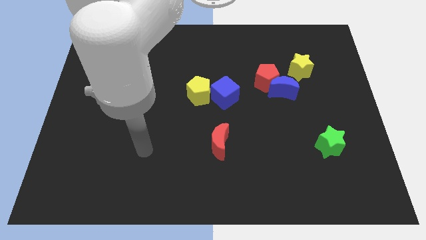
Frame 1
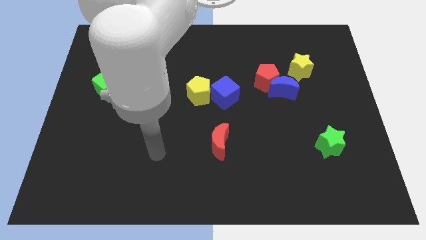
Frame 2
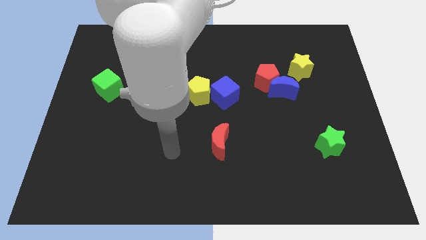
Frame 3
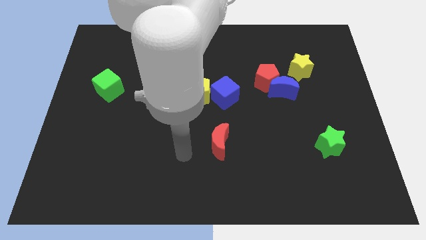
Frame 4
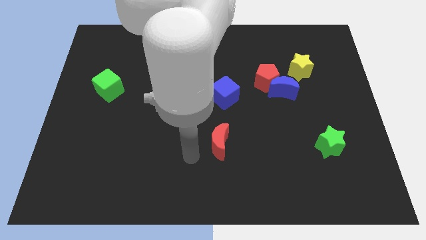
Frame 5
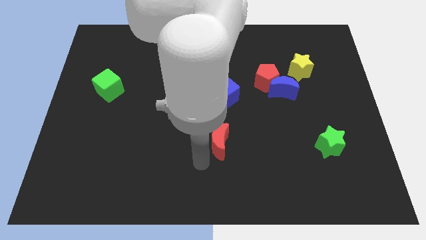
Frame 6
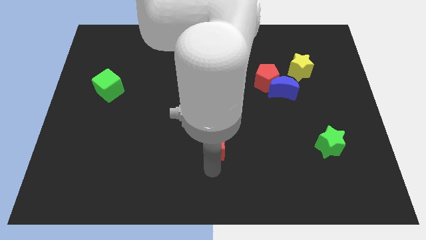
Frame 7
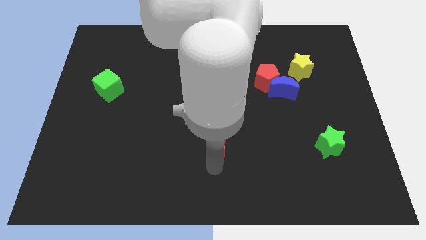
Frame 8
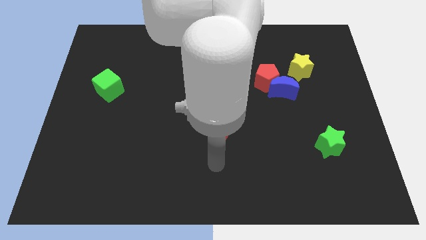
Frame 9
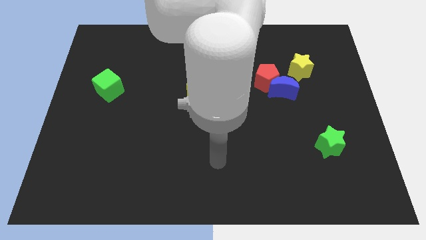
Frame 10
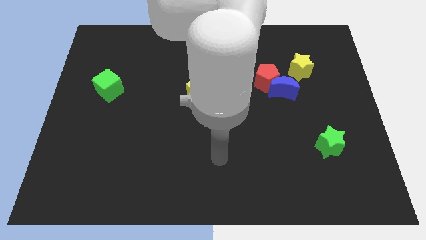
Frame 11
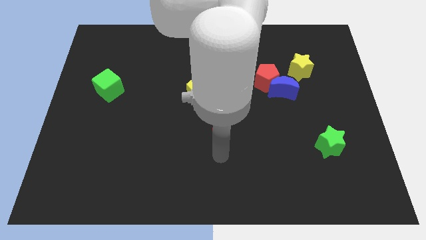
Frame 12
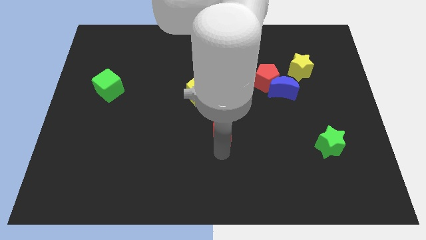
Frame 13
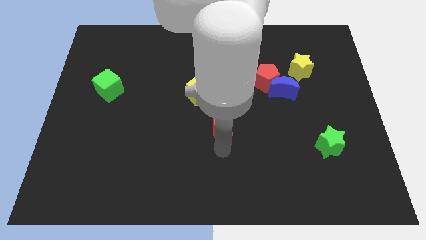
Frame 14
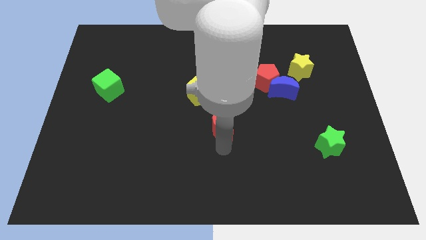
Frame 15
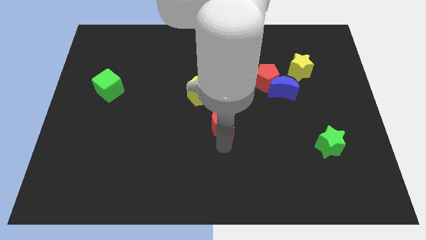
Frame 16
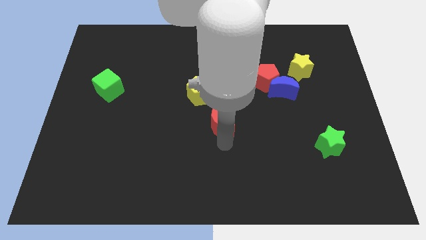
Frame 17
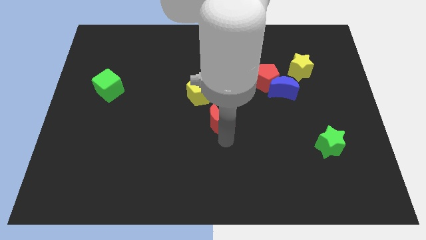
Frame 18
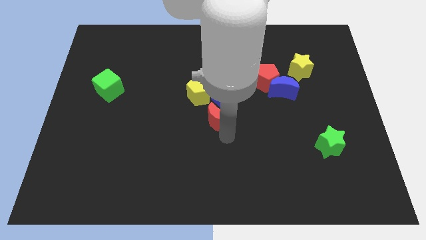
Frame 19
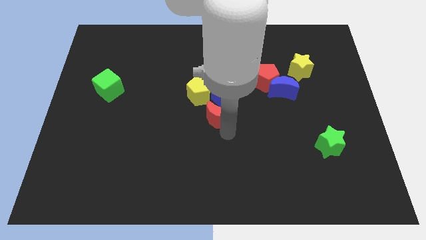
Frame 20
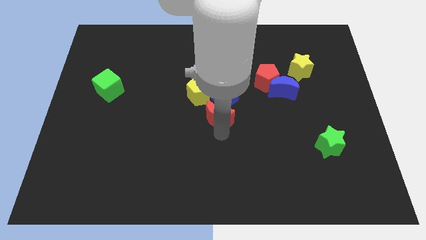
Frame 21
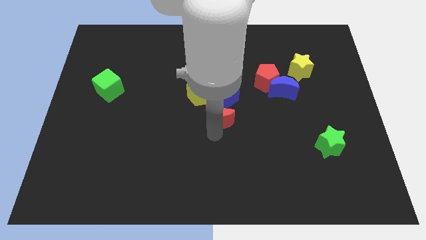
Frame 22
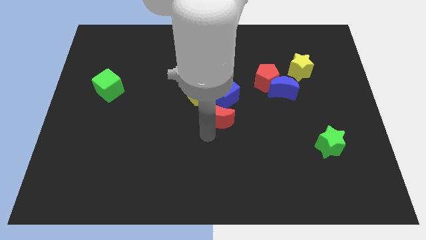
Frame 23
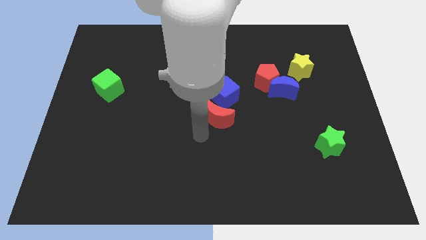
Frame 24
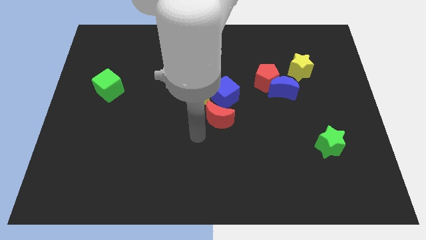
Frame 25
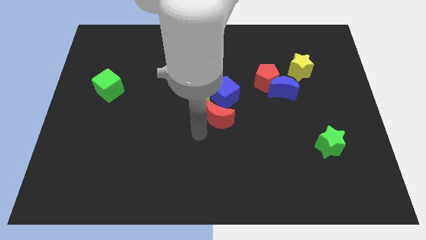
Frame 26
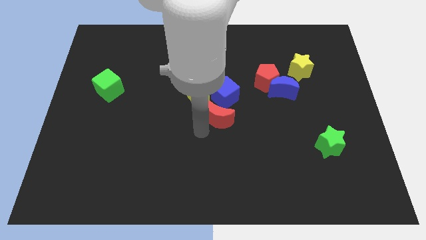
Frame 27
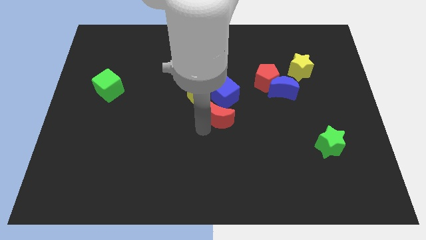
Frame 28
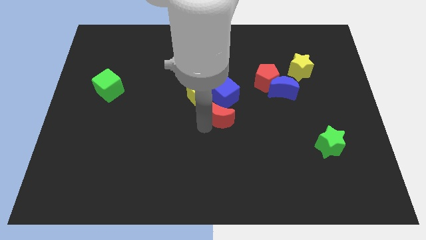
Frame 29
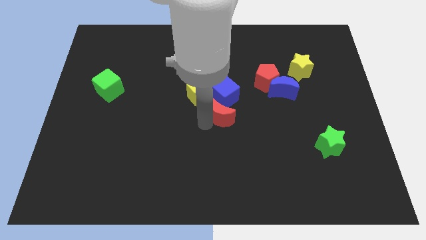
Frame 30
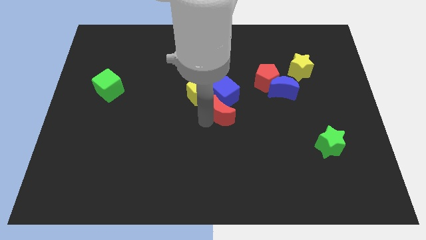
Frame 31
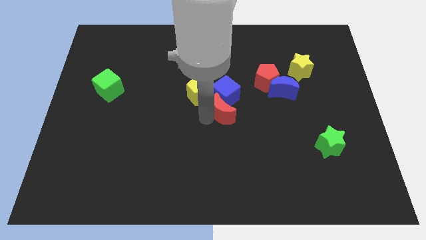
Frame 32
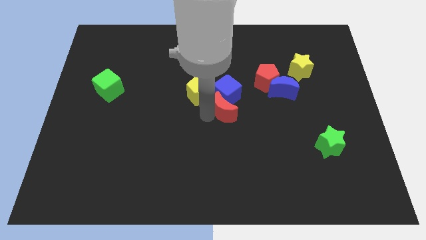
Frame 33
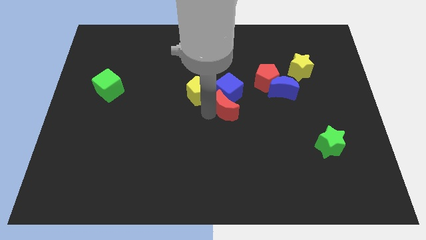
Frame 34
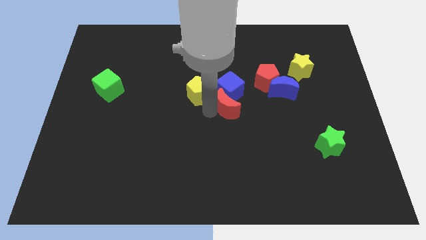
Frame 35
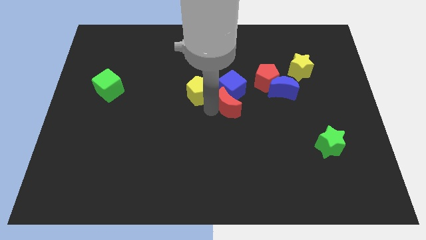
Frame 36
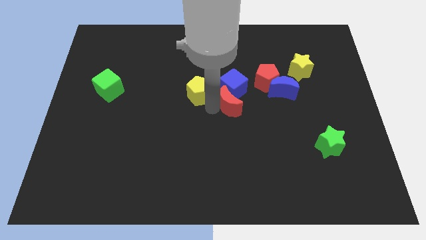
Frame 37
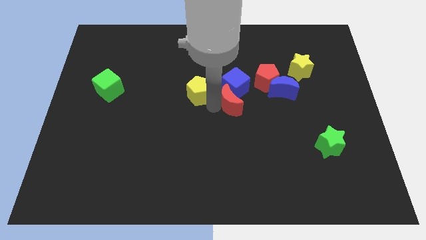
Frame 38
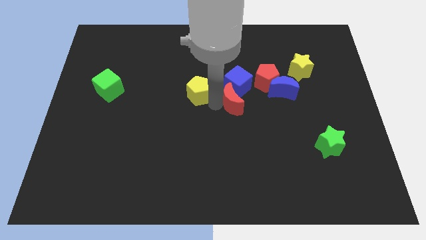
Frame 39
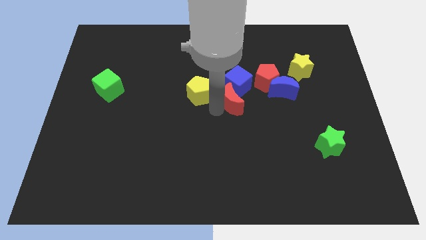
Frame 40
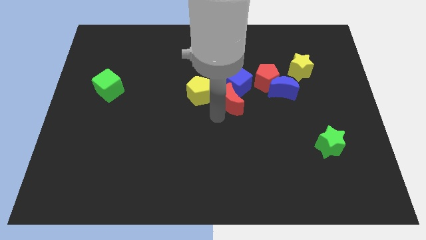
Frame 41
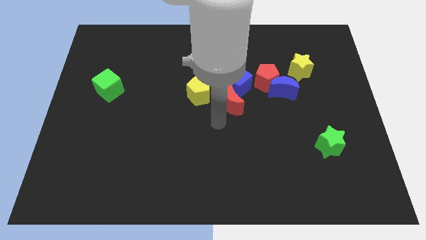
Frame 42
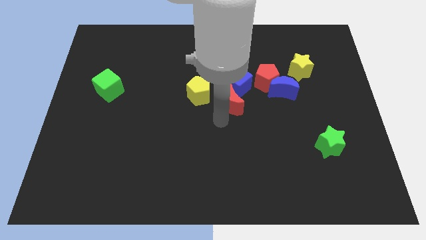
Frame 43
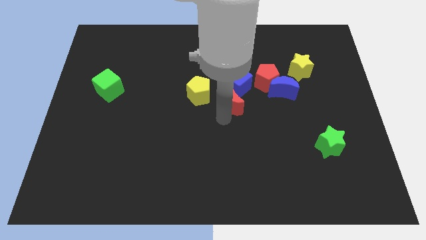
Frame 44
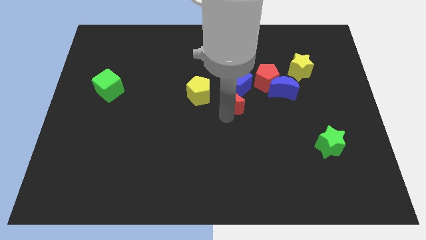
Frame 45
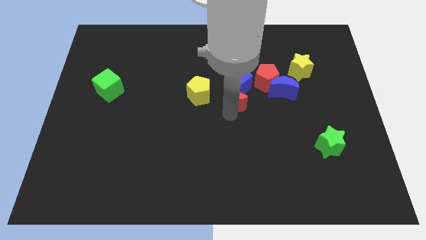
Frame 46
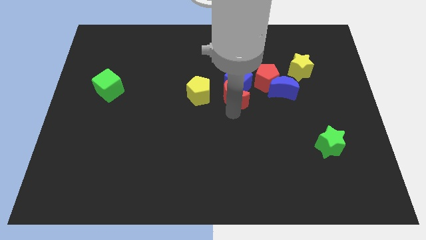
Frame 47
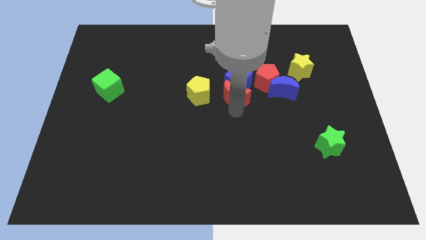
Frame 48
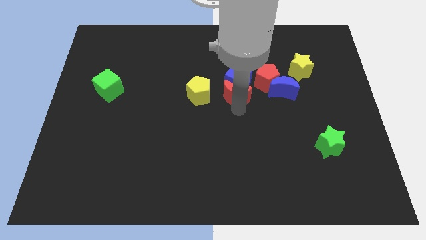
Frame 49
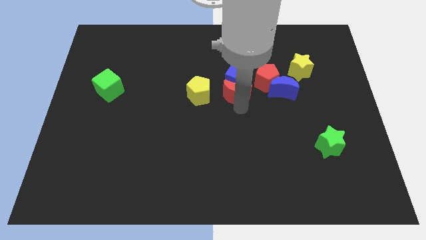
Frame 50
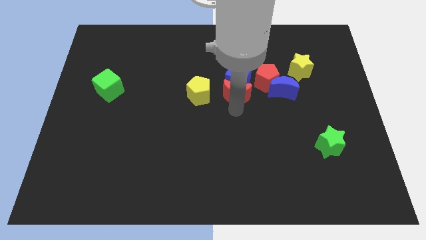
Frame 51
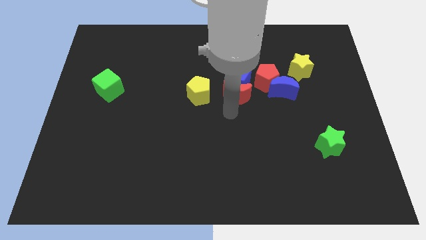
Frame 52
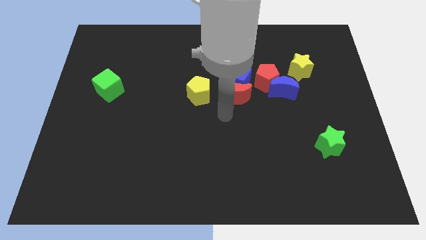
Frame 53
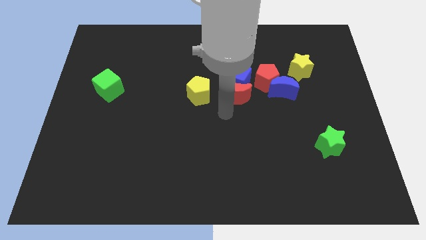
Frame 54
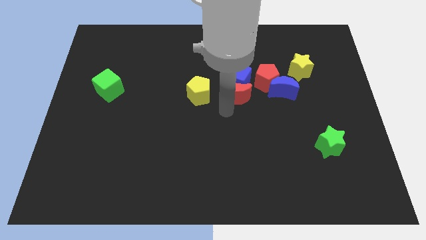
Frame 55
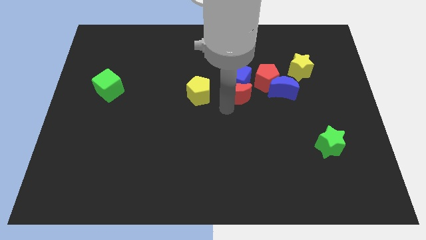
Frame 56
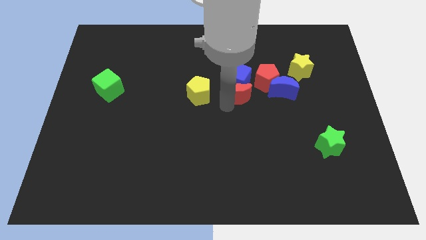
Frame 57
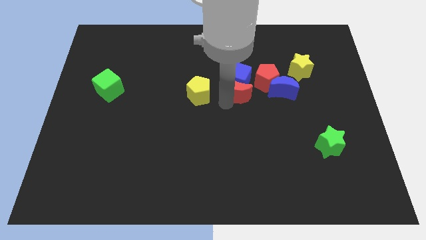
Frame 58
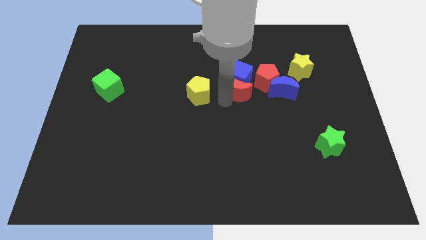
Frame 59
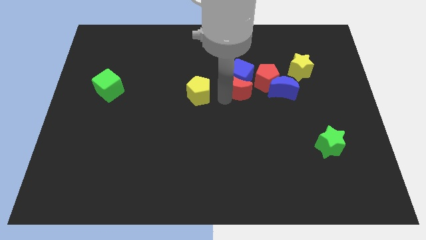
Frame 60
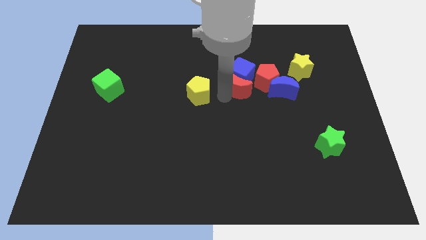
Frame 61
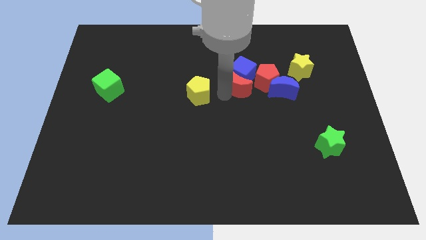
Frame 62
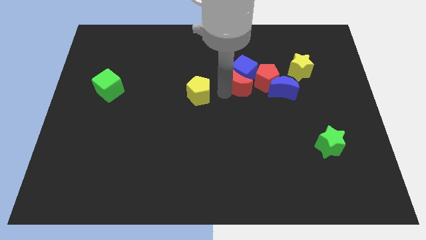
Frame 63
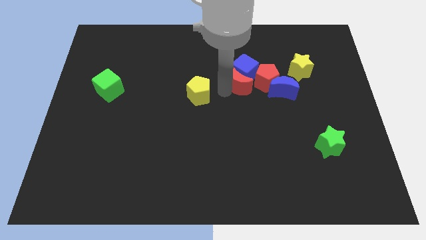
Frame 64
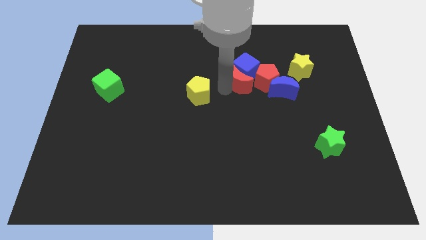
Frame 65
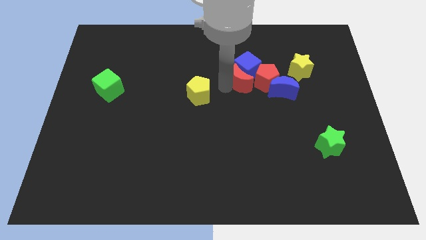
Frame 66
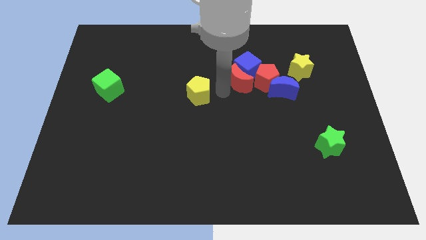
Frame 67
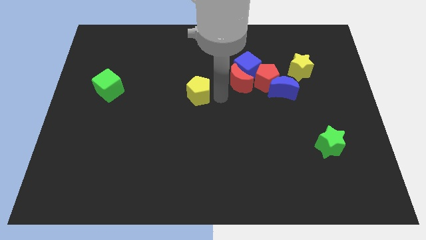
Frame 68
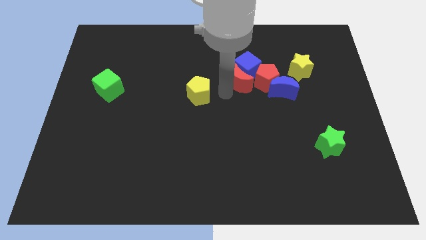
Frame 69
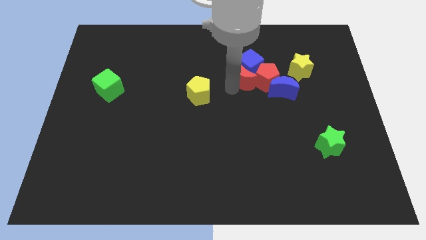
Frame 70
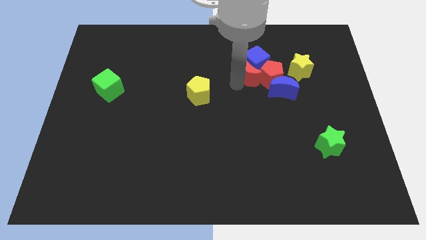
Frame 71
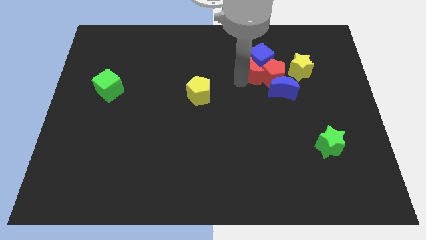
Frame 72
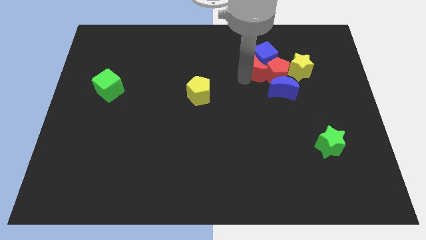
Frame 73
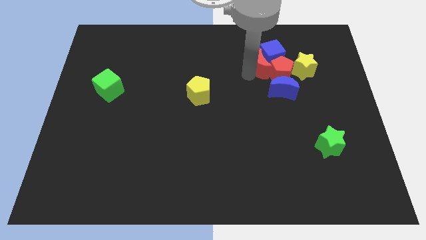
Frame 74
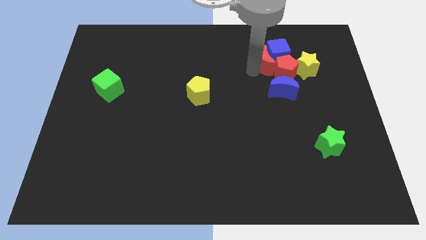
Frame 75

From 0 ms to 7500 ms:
push the red moon to the top of the blue moon
